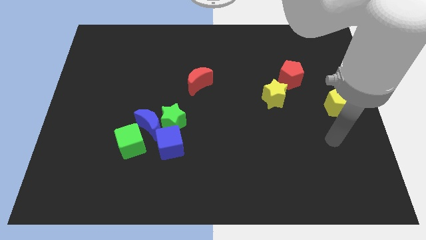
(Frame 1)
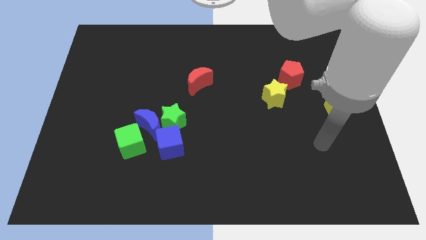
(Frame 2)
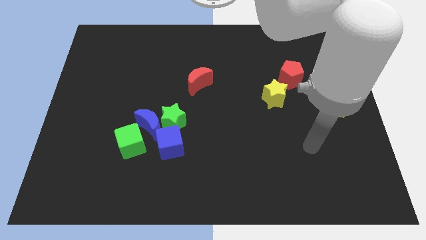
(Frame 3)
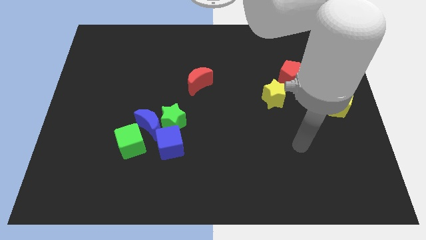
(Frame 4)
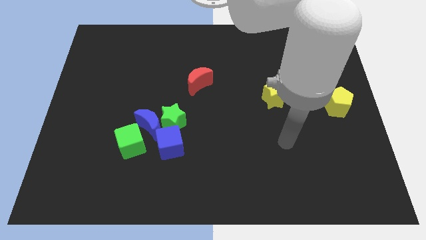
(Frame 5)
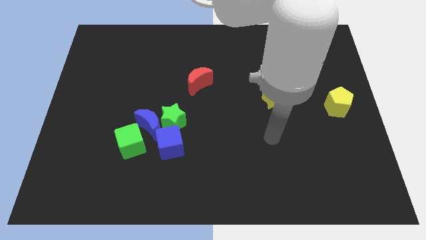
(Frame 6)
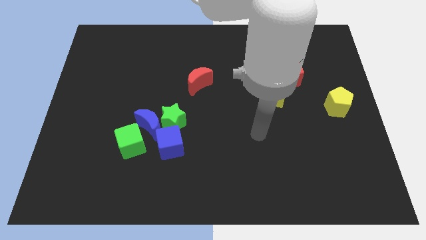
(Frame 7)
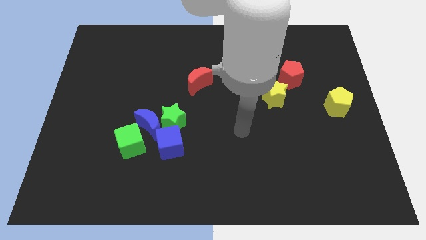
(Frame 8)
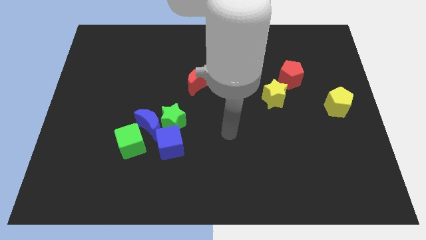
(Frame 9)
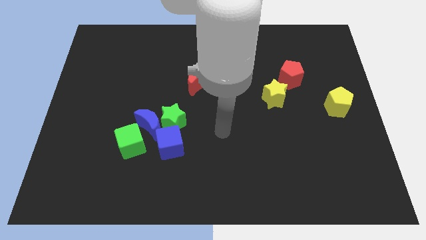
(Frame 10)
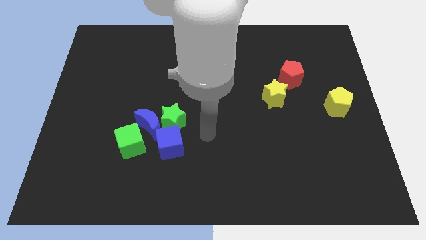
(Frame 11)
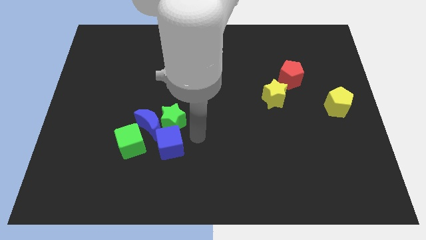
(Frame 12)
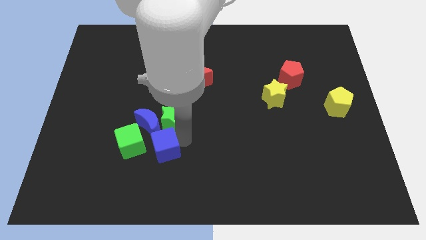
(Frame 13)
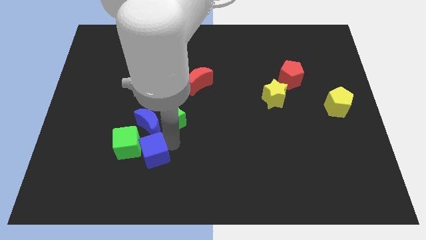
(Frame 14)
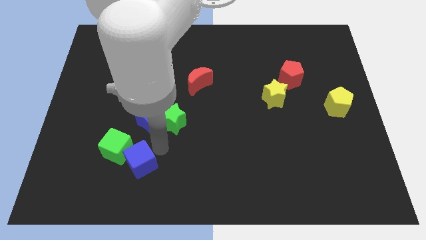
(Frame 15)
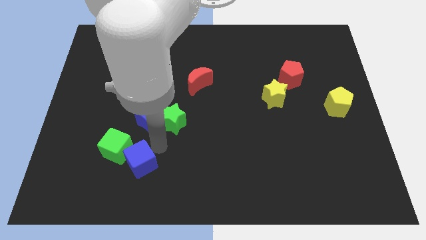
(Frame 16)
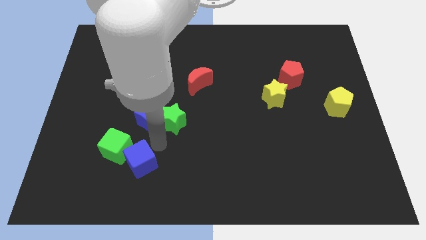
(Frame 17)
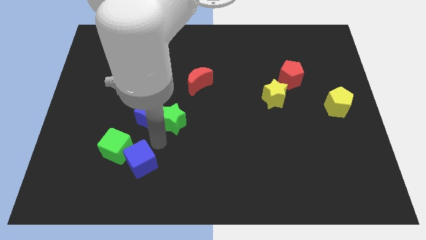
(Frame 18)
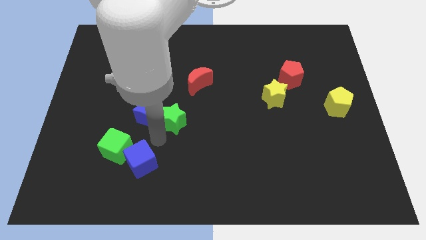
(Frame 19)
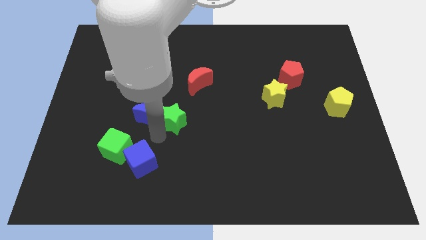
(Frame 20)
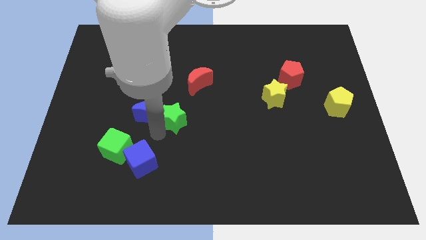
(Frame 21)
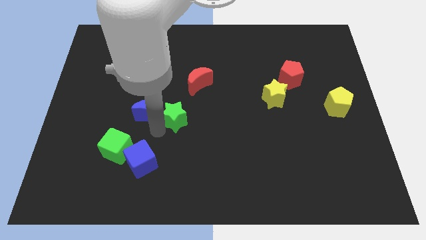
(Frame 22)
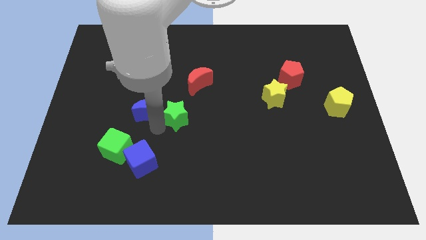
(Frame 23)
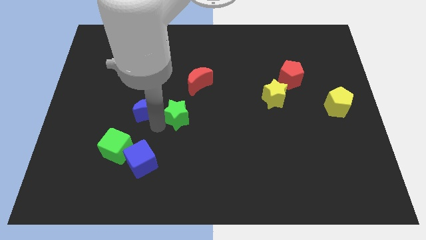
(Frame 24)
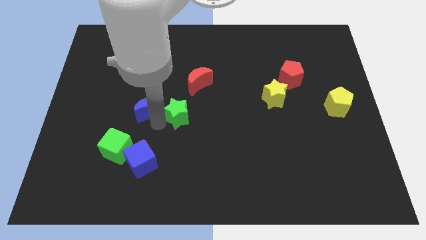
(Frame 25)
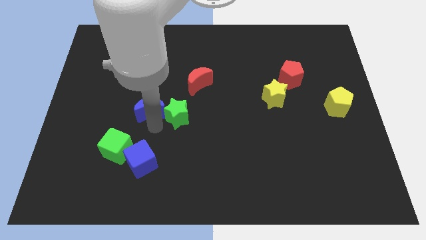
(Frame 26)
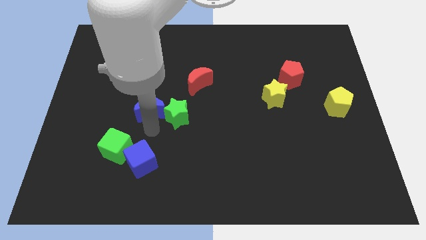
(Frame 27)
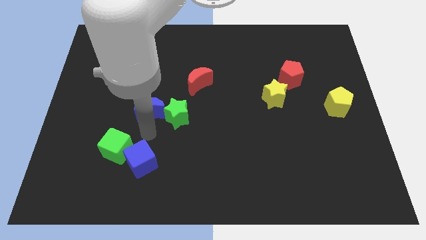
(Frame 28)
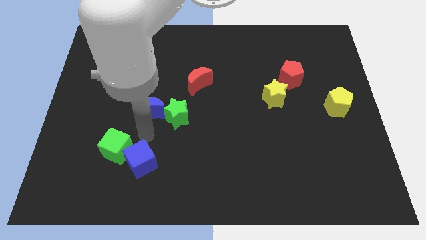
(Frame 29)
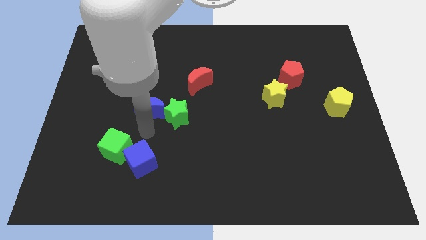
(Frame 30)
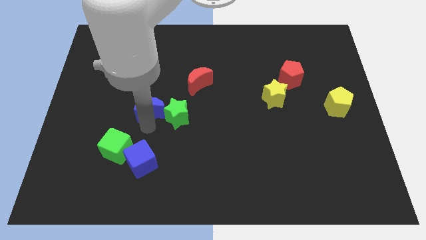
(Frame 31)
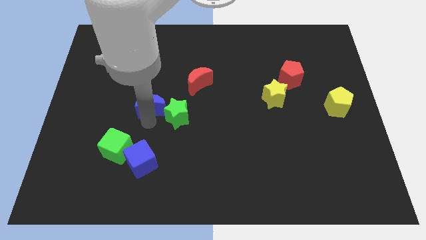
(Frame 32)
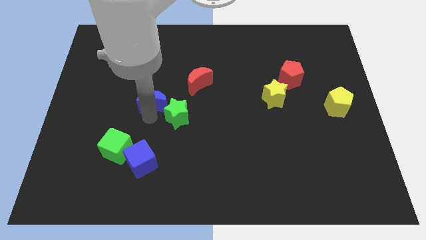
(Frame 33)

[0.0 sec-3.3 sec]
pull the blue moon apart from the group

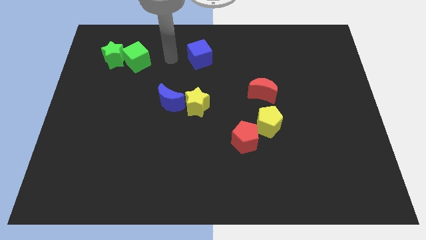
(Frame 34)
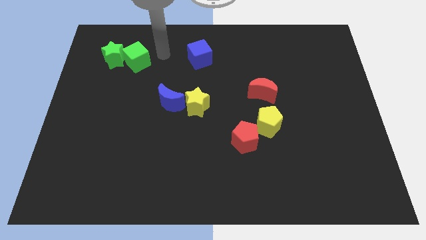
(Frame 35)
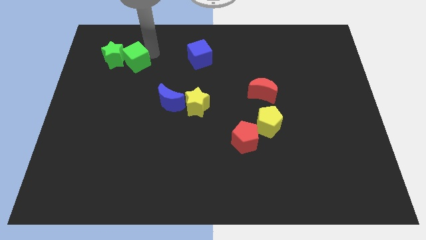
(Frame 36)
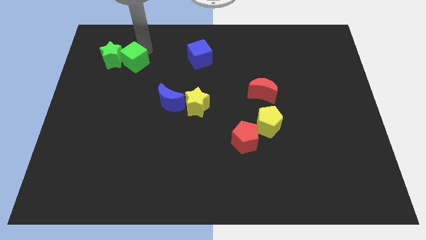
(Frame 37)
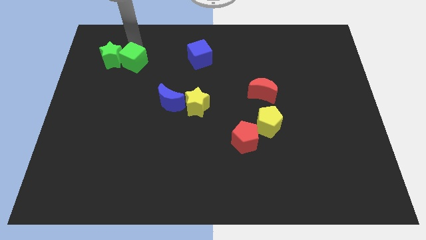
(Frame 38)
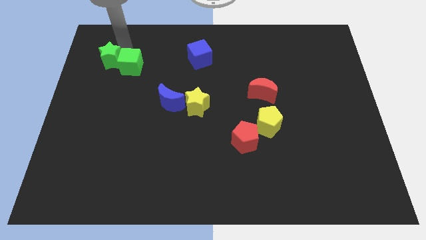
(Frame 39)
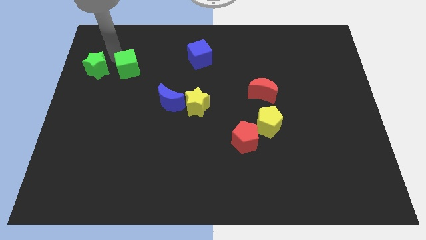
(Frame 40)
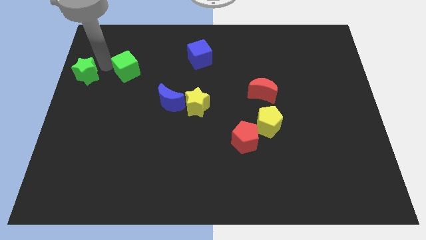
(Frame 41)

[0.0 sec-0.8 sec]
move the green cube away from the green star

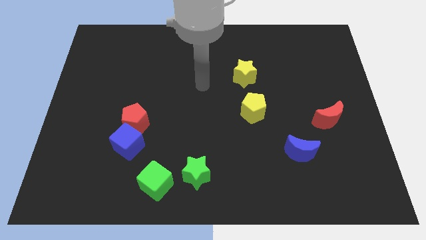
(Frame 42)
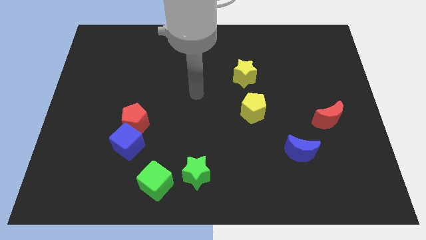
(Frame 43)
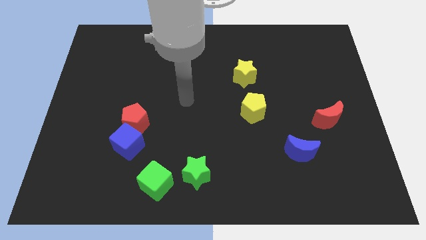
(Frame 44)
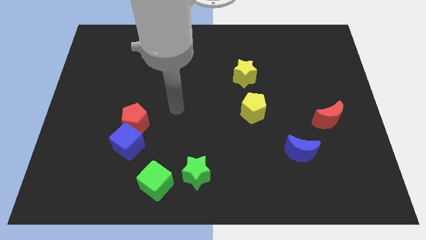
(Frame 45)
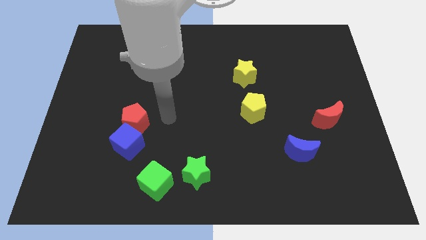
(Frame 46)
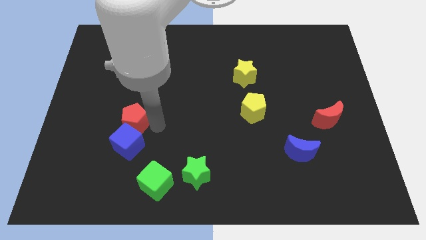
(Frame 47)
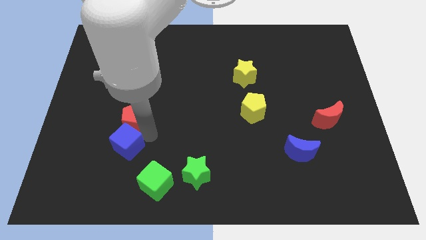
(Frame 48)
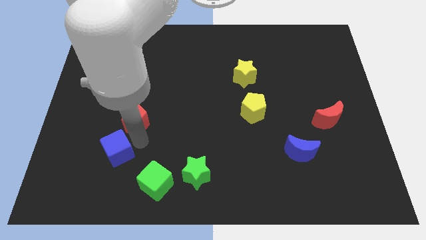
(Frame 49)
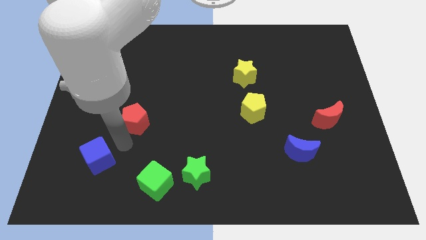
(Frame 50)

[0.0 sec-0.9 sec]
move the red pentagon away from the blue cube

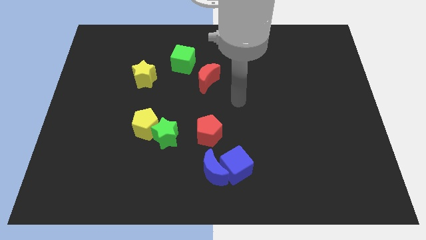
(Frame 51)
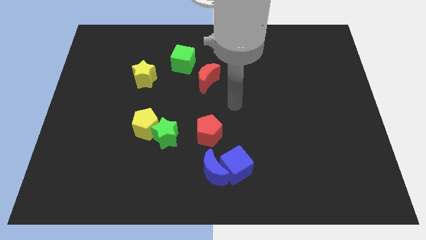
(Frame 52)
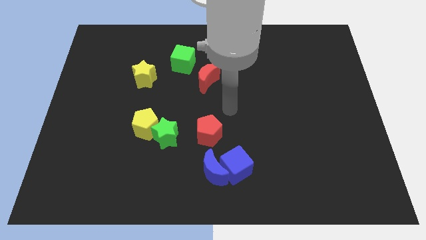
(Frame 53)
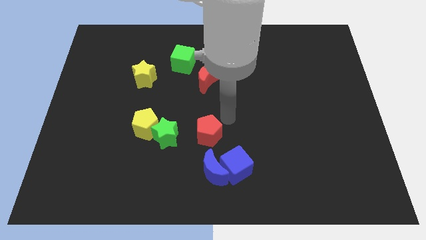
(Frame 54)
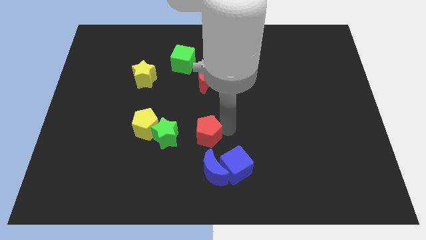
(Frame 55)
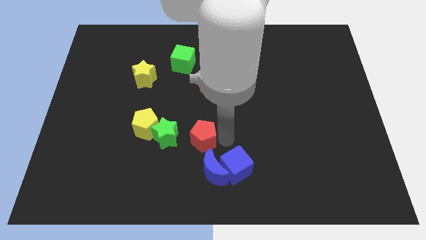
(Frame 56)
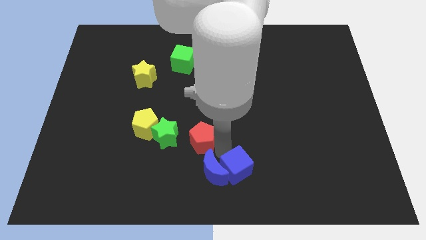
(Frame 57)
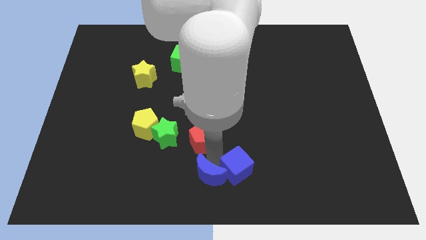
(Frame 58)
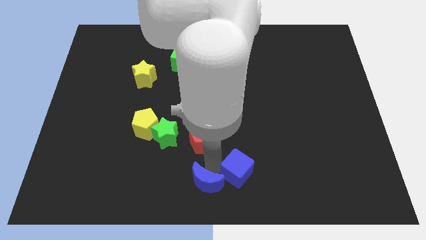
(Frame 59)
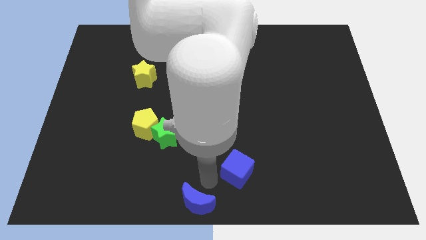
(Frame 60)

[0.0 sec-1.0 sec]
separate the blue cube from the blue moon

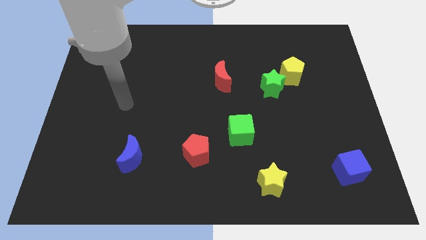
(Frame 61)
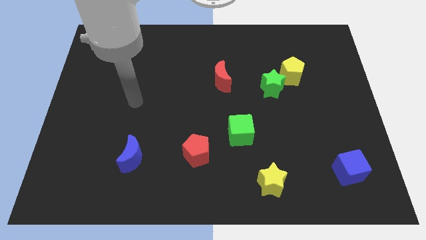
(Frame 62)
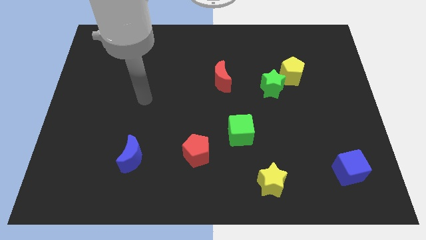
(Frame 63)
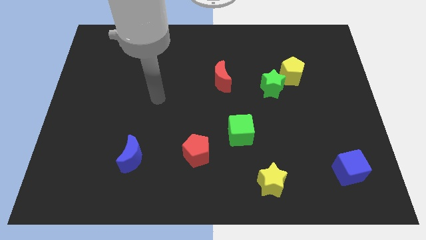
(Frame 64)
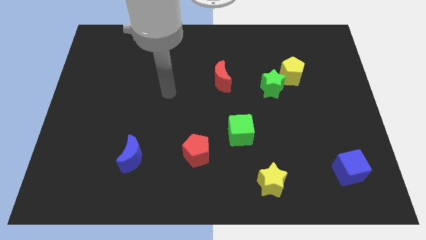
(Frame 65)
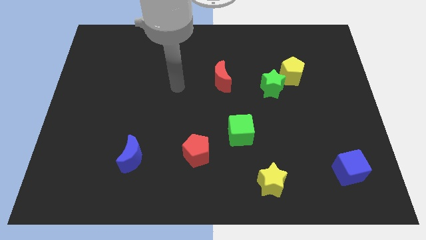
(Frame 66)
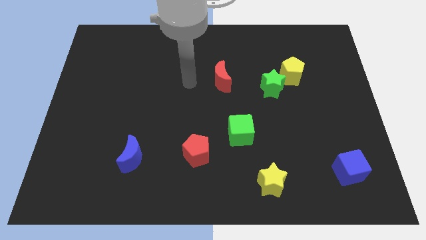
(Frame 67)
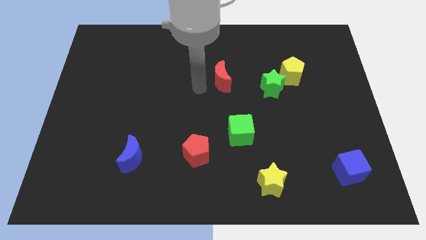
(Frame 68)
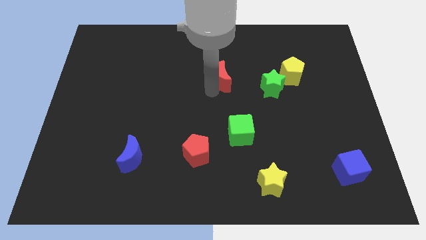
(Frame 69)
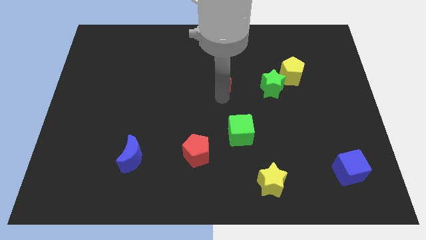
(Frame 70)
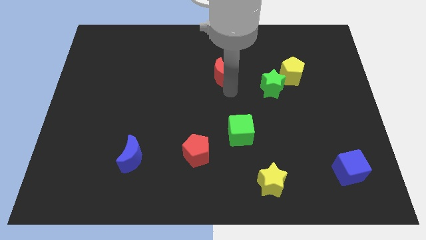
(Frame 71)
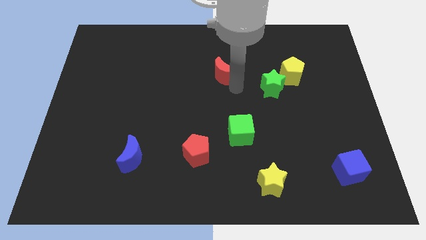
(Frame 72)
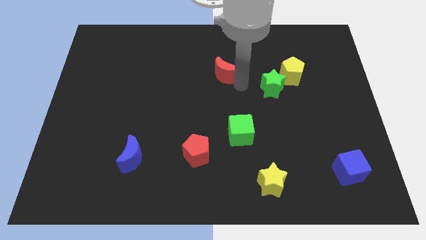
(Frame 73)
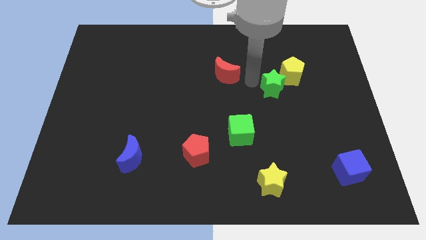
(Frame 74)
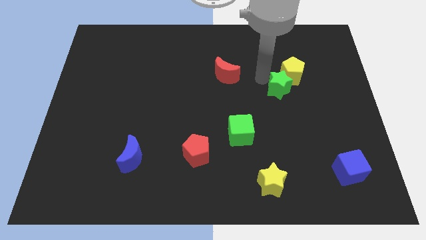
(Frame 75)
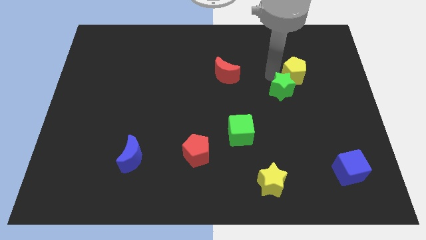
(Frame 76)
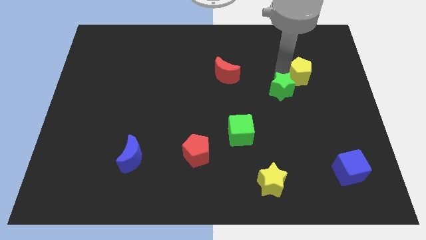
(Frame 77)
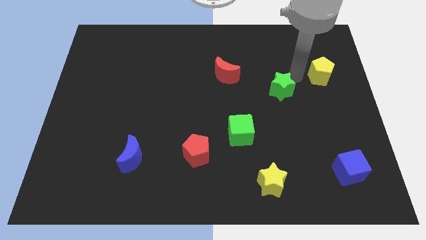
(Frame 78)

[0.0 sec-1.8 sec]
separate the green star from the yellow pentagon

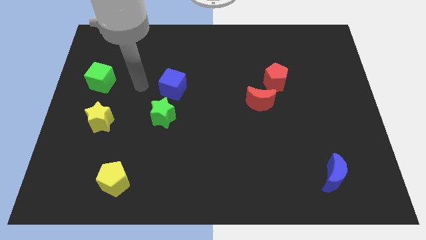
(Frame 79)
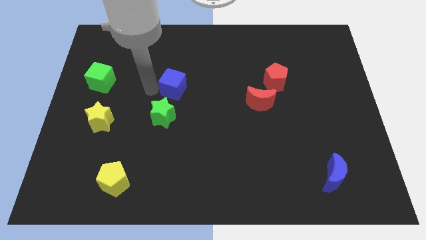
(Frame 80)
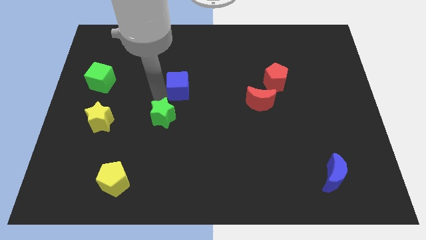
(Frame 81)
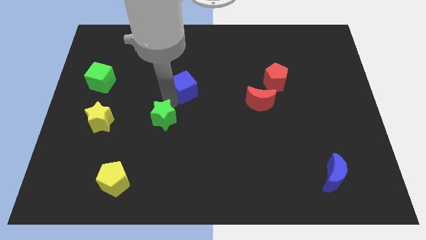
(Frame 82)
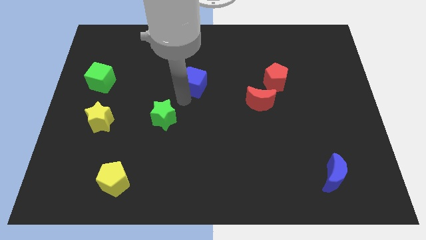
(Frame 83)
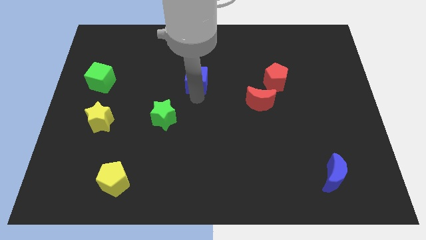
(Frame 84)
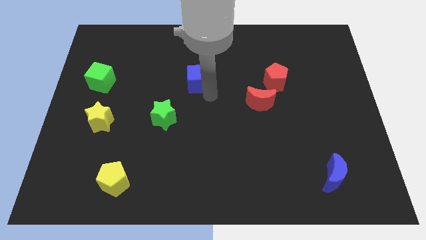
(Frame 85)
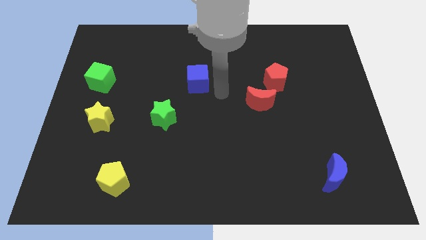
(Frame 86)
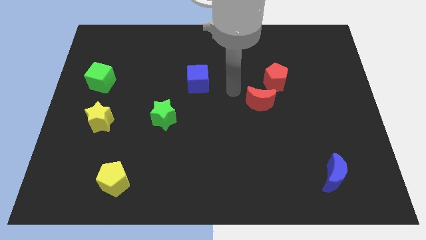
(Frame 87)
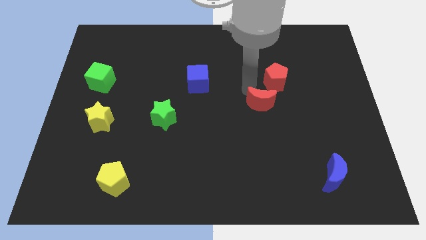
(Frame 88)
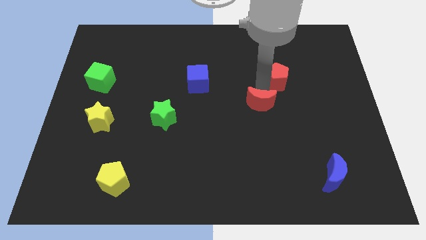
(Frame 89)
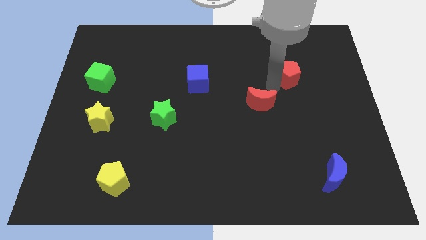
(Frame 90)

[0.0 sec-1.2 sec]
pull the red moon apart from the red pentagon

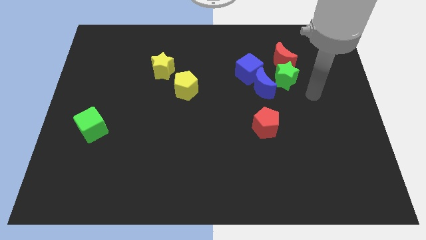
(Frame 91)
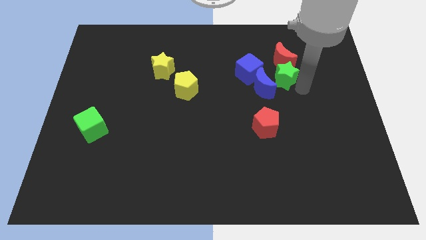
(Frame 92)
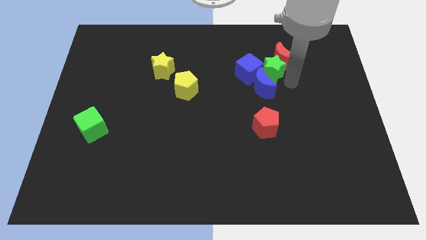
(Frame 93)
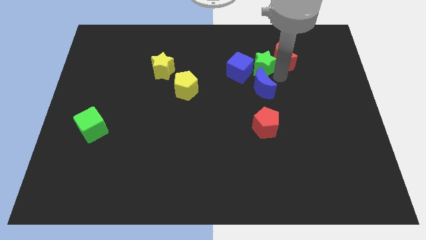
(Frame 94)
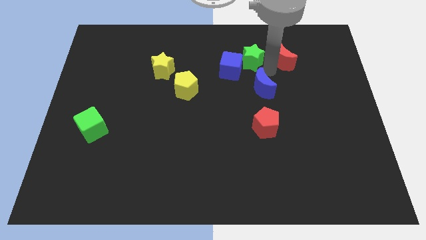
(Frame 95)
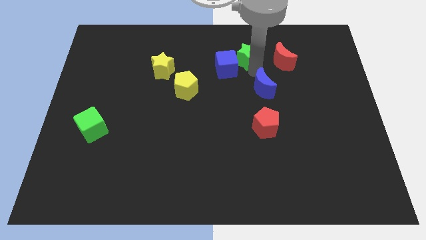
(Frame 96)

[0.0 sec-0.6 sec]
separate the blue moon from the blue cube and green star
